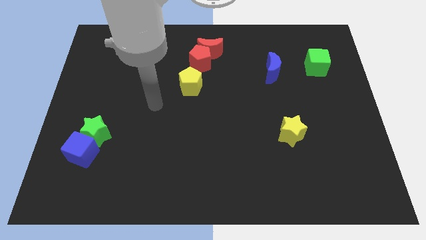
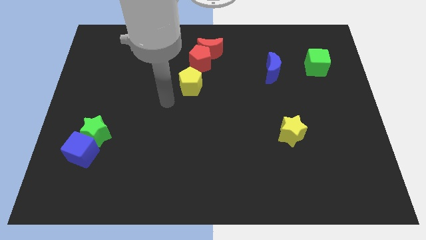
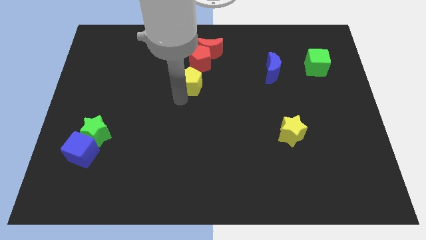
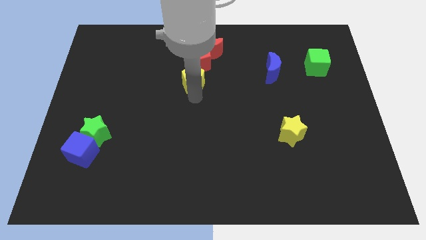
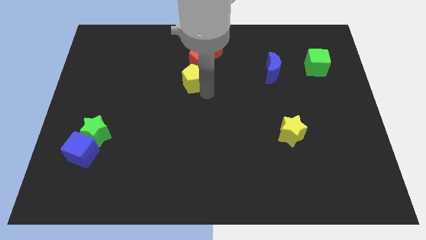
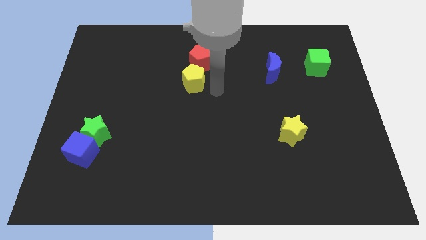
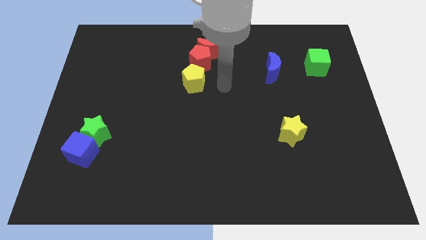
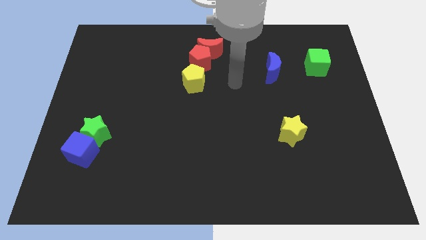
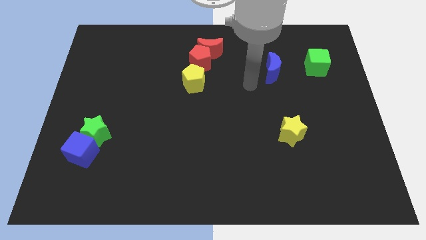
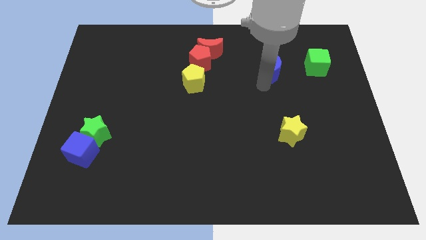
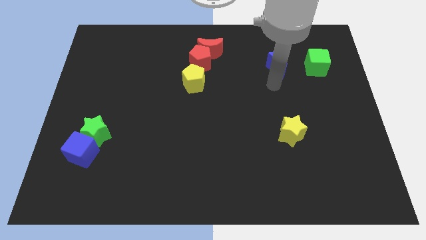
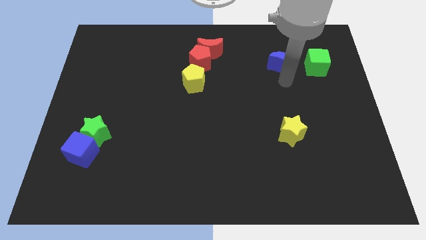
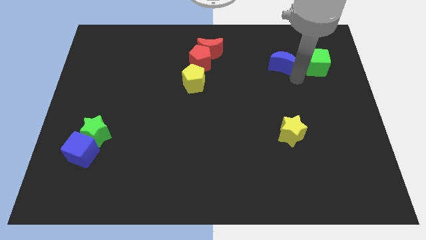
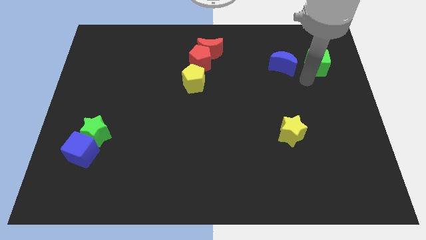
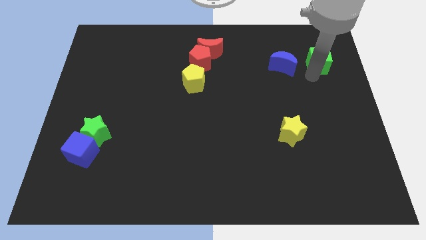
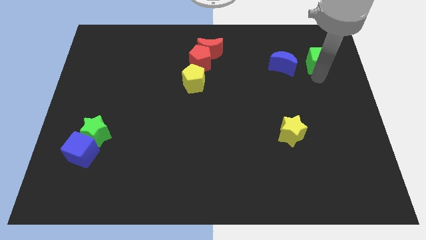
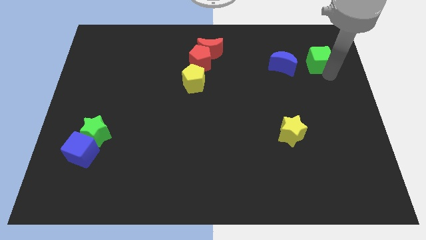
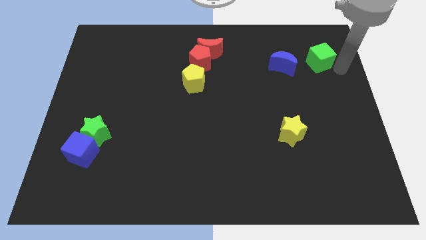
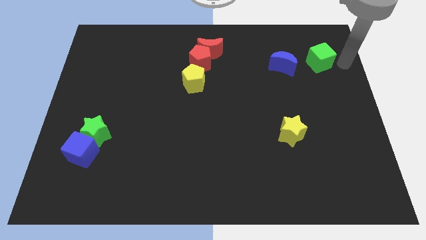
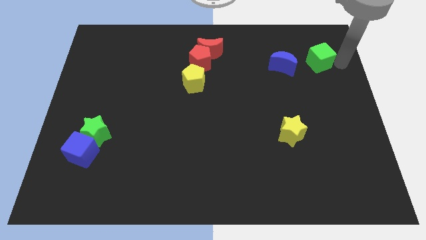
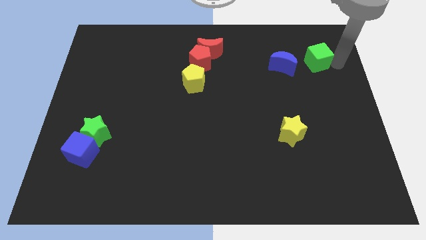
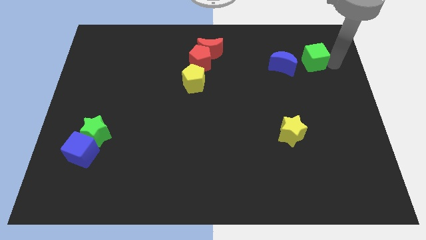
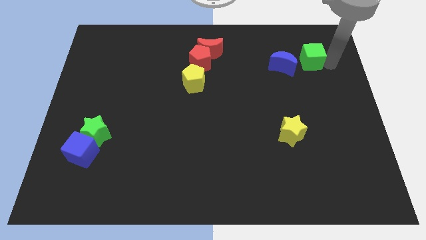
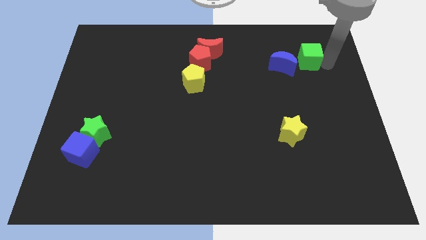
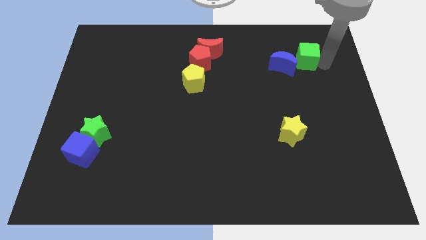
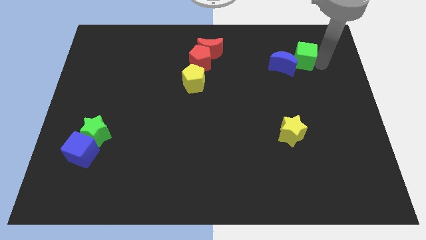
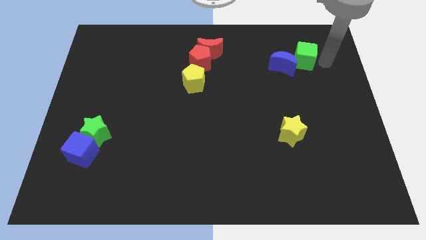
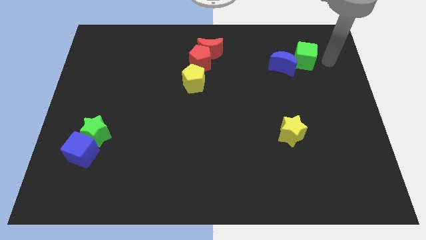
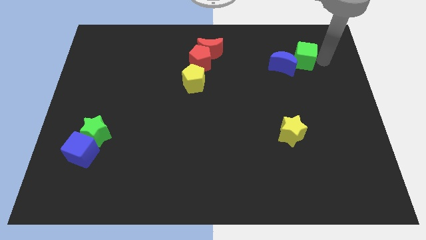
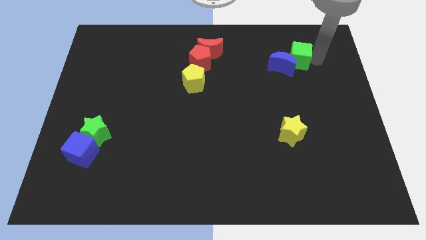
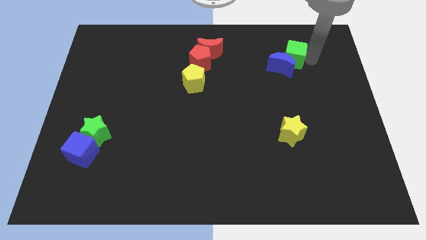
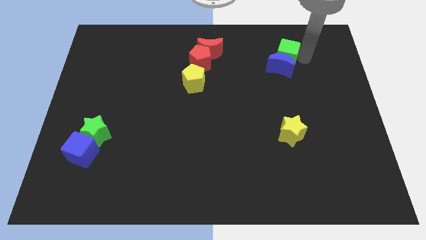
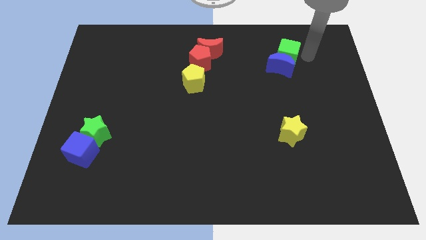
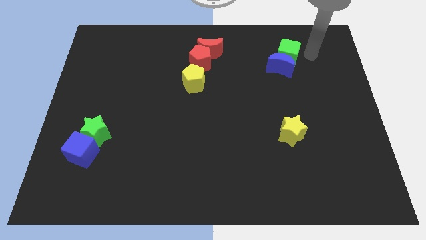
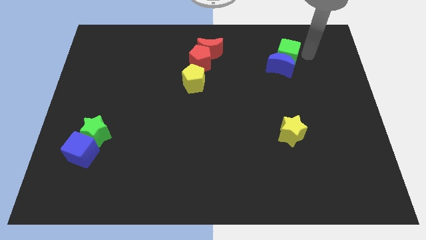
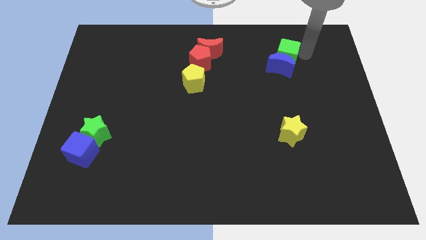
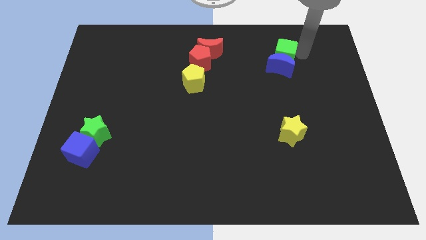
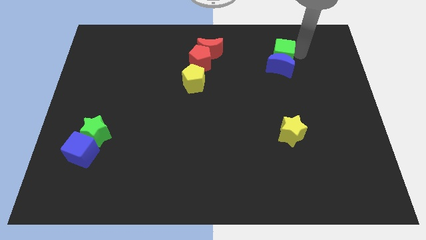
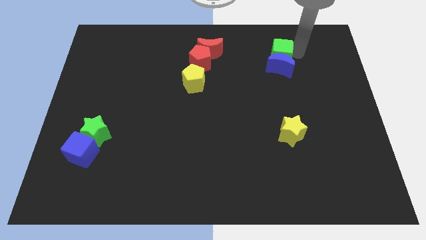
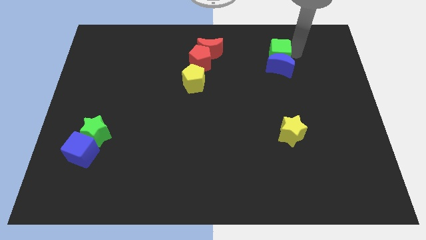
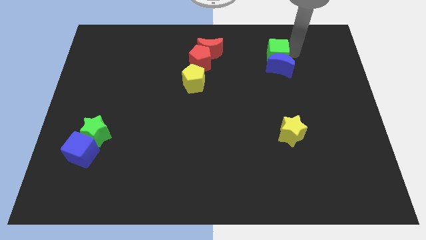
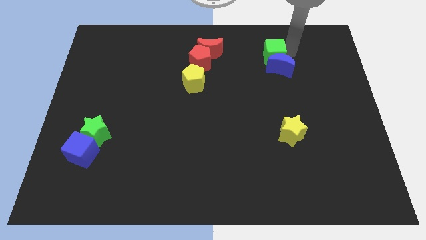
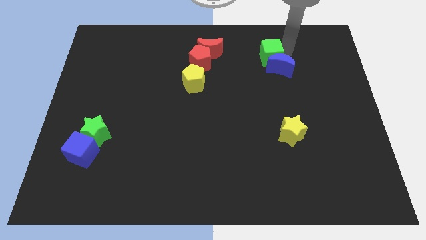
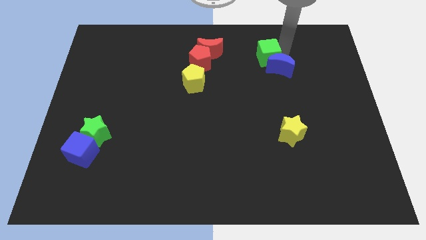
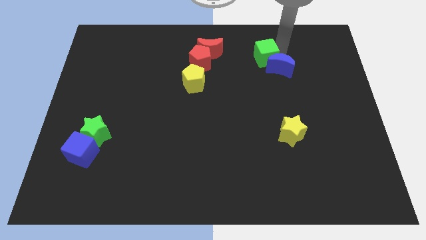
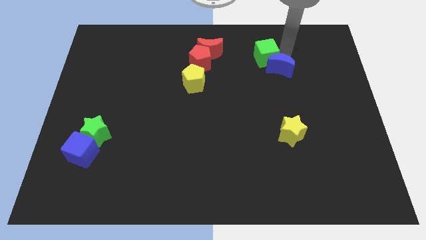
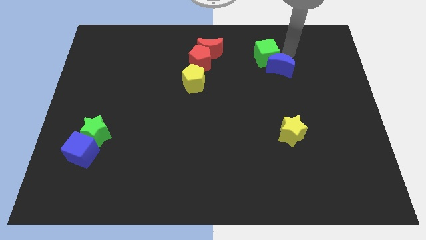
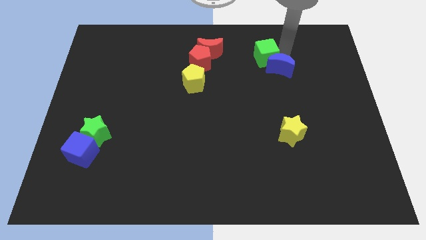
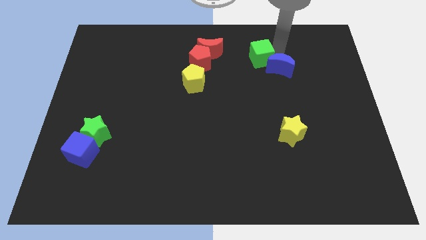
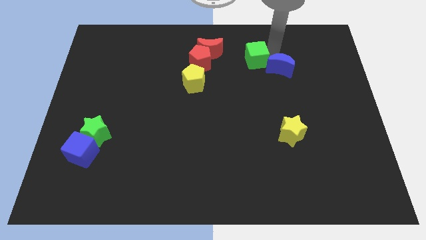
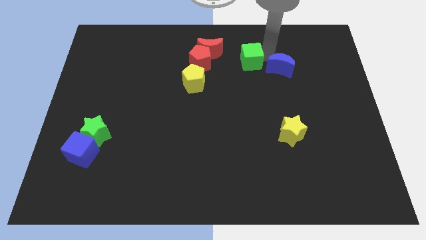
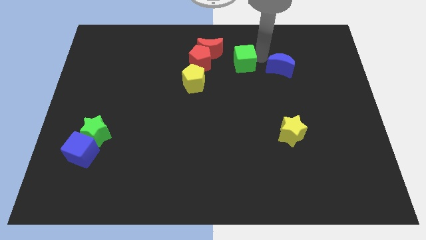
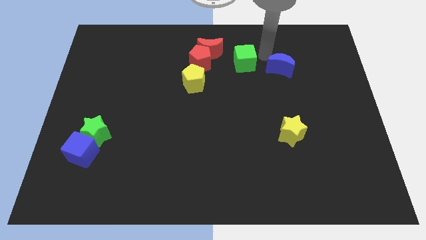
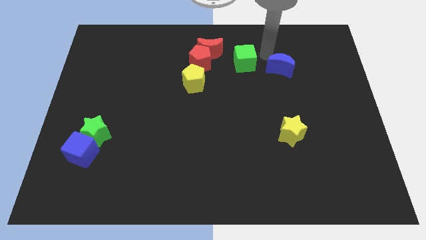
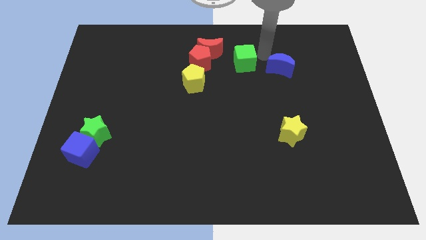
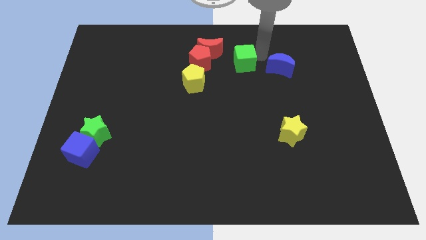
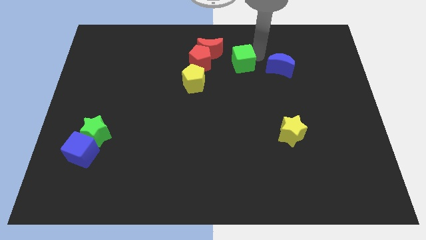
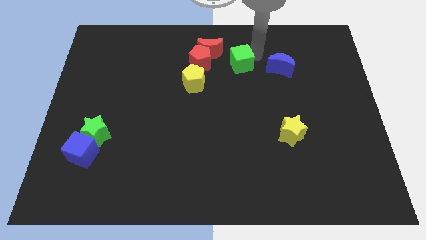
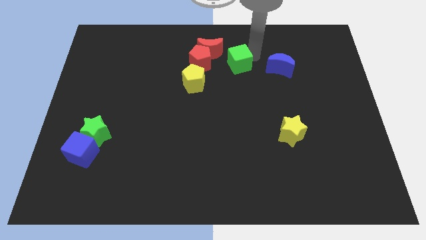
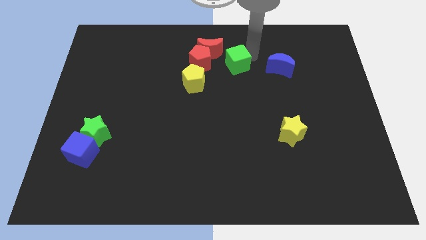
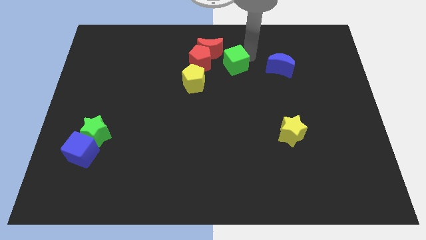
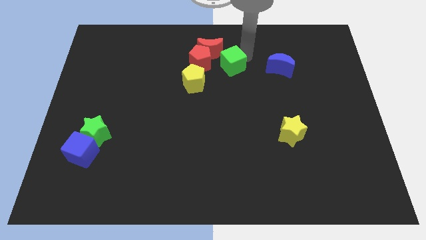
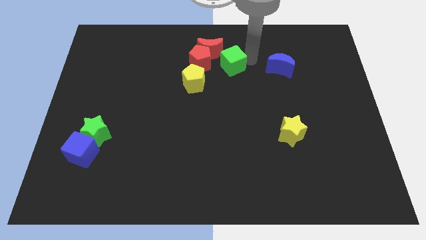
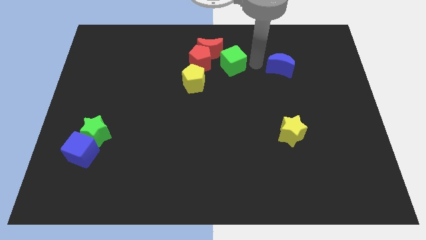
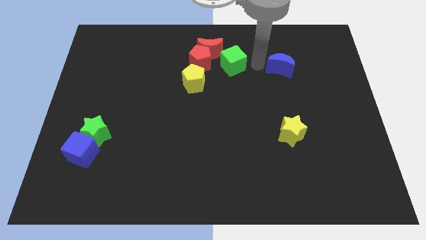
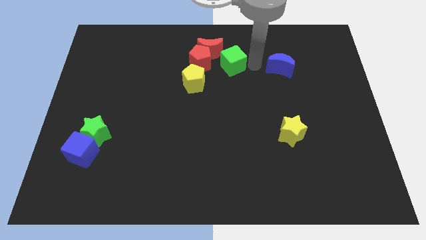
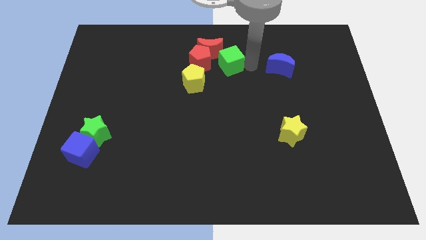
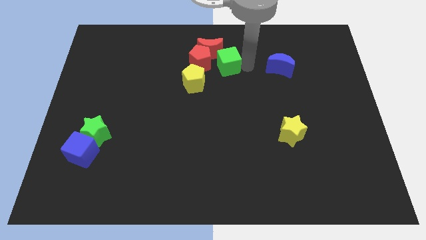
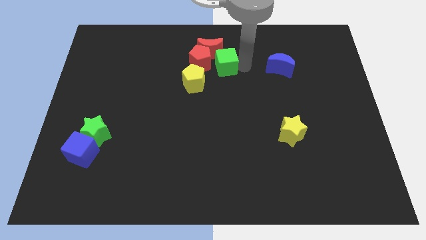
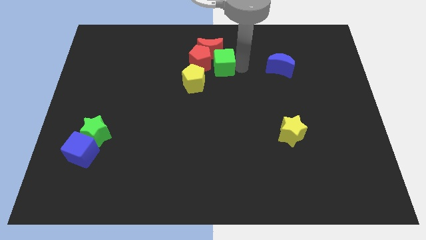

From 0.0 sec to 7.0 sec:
slide the green cube to the red pentagon
